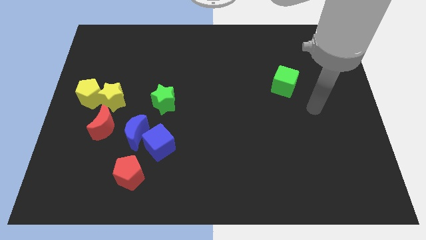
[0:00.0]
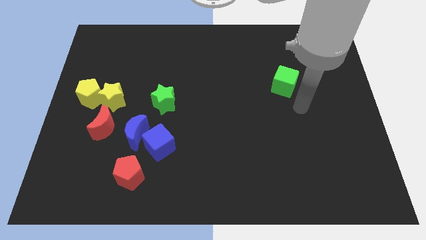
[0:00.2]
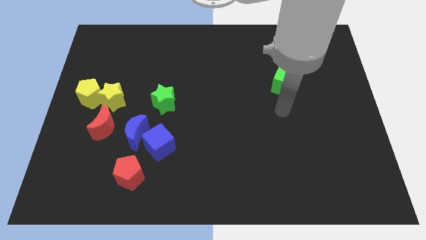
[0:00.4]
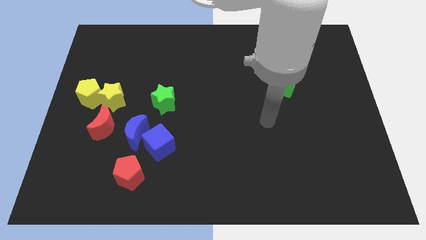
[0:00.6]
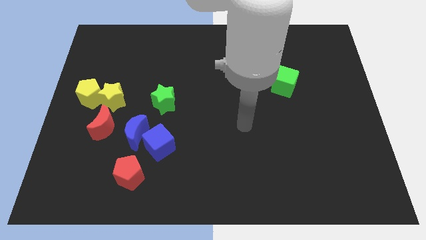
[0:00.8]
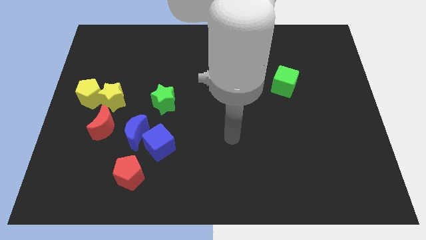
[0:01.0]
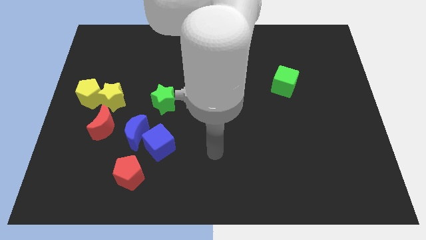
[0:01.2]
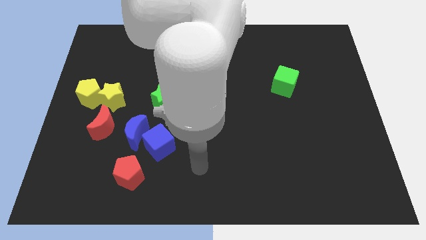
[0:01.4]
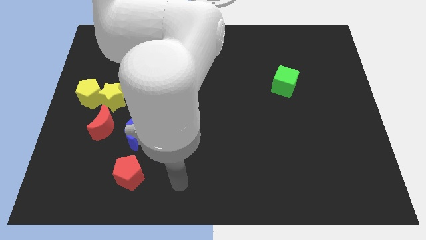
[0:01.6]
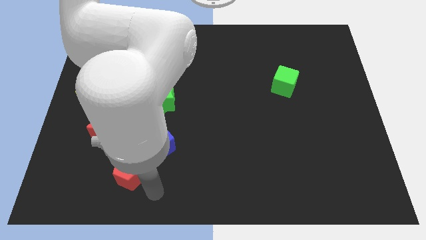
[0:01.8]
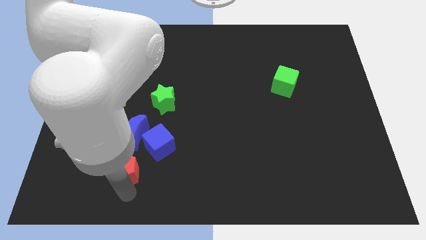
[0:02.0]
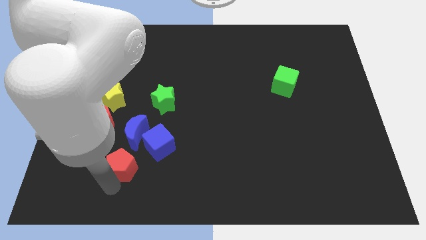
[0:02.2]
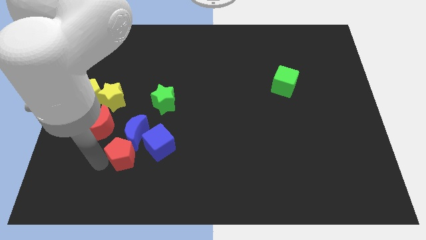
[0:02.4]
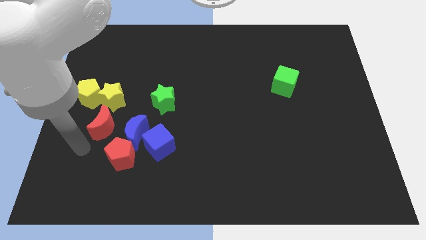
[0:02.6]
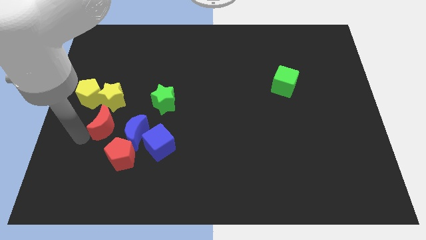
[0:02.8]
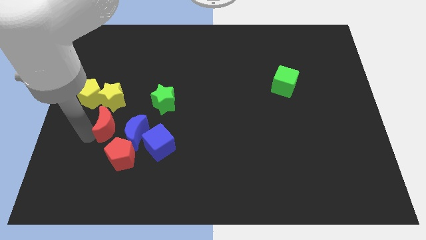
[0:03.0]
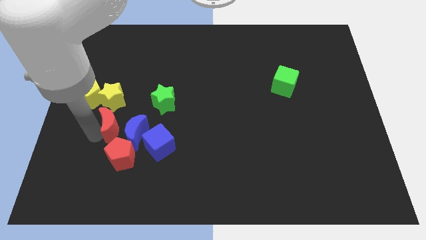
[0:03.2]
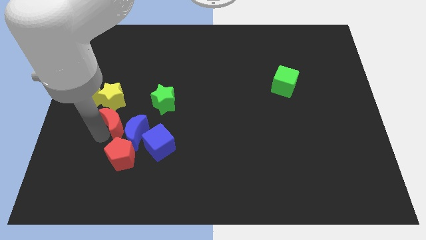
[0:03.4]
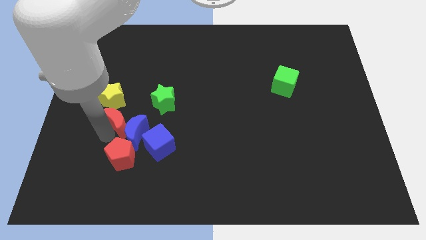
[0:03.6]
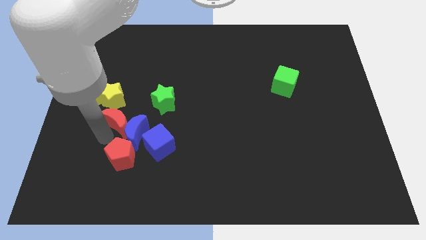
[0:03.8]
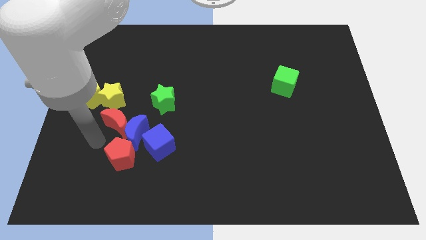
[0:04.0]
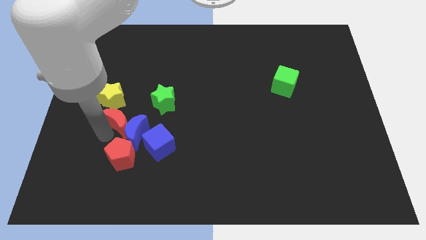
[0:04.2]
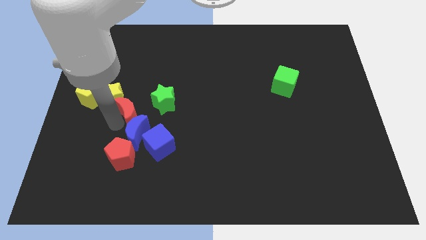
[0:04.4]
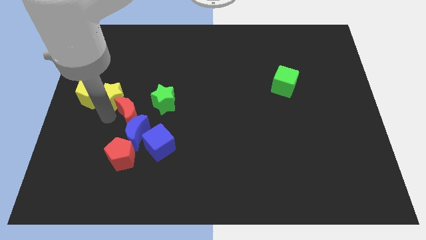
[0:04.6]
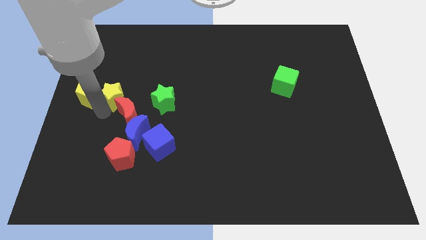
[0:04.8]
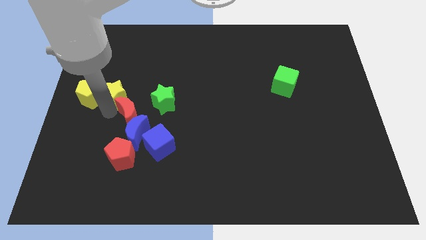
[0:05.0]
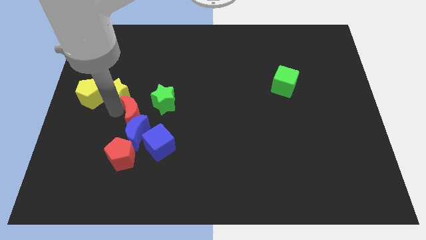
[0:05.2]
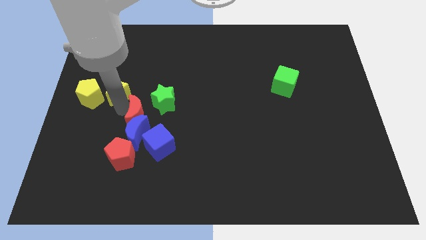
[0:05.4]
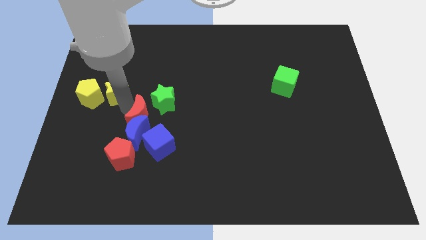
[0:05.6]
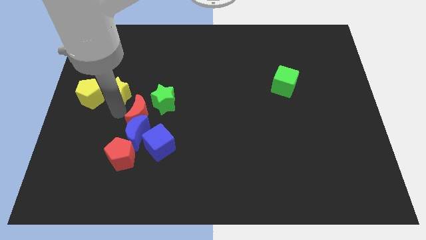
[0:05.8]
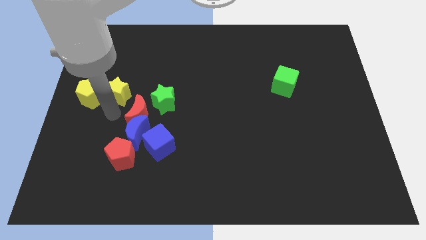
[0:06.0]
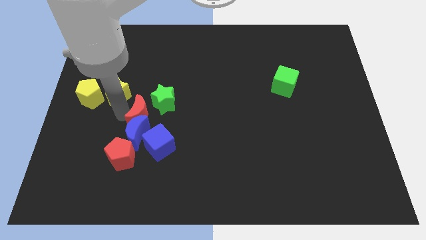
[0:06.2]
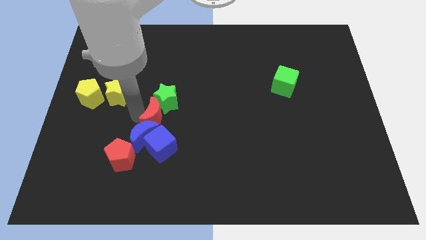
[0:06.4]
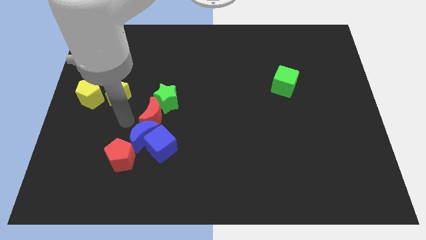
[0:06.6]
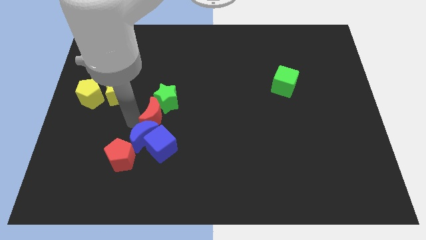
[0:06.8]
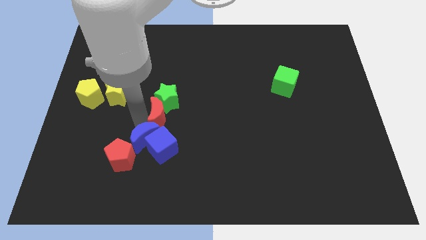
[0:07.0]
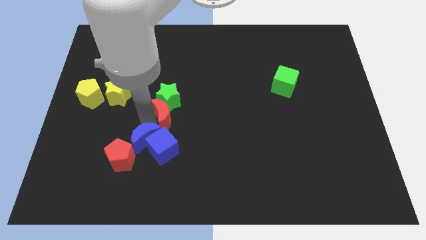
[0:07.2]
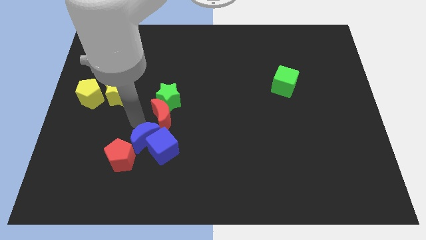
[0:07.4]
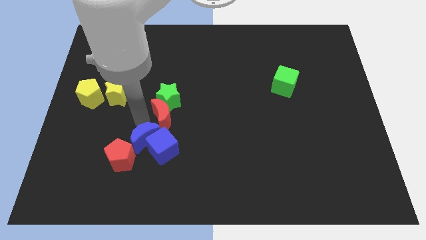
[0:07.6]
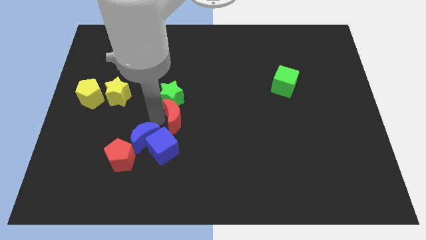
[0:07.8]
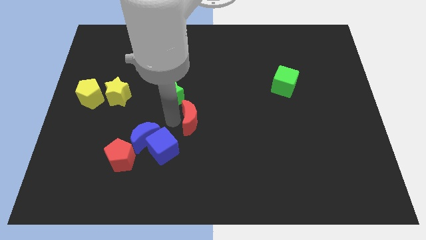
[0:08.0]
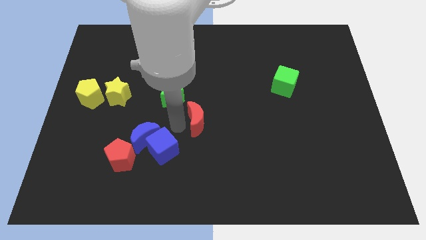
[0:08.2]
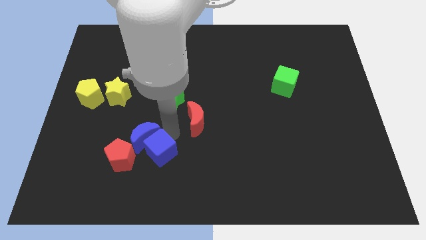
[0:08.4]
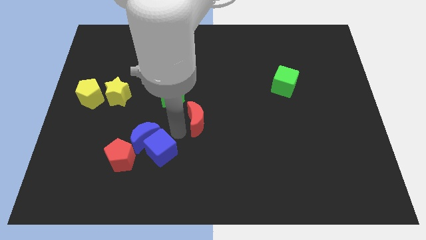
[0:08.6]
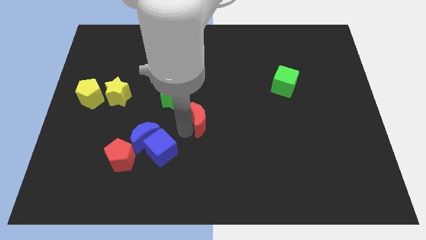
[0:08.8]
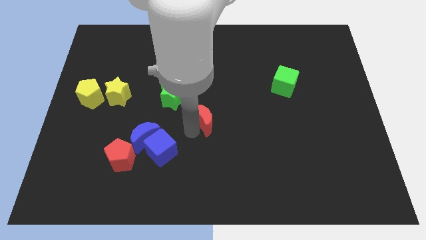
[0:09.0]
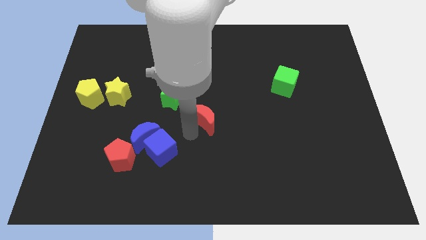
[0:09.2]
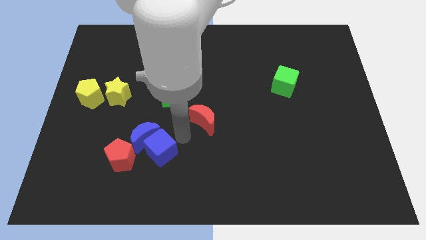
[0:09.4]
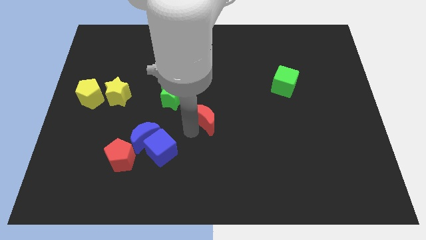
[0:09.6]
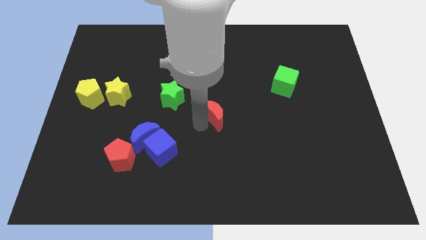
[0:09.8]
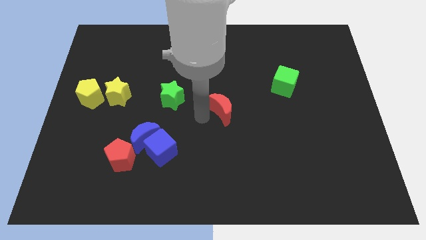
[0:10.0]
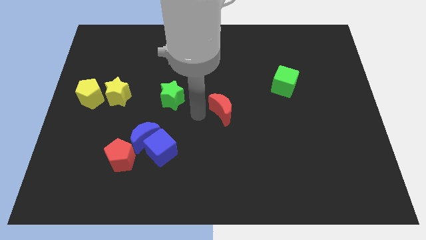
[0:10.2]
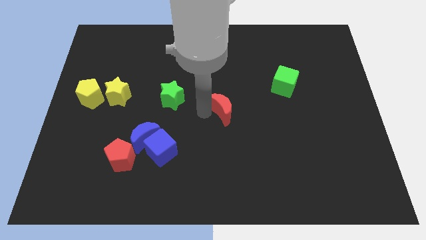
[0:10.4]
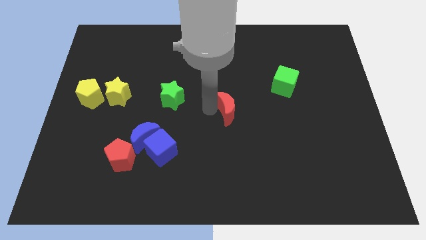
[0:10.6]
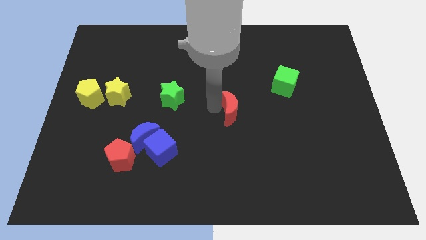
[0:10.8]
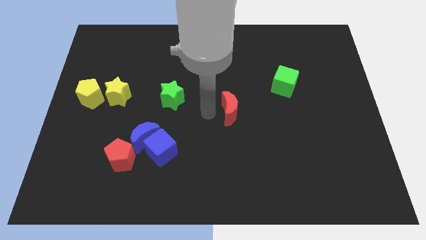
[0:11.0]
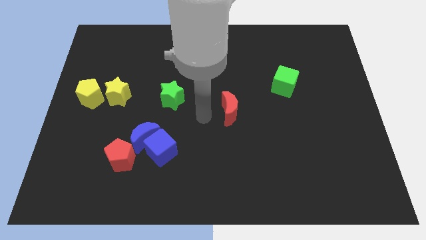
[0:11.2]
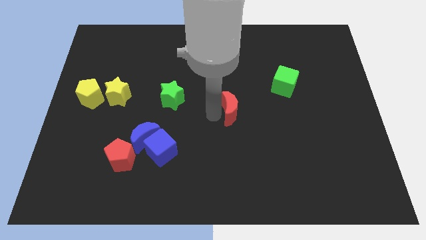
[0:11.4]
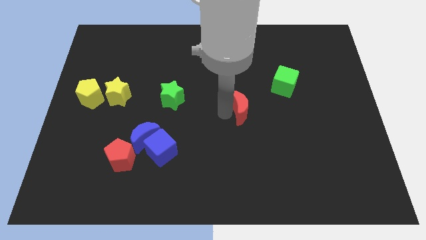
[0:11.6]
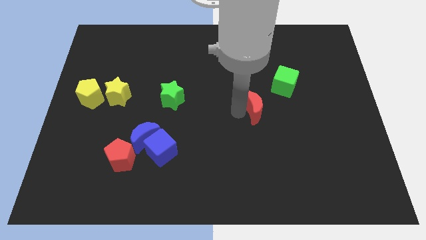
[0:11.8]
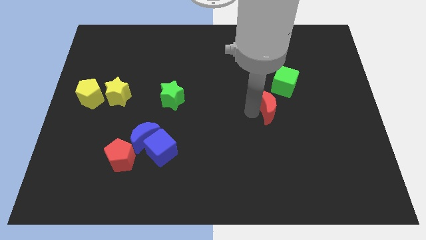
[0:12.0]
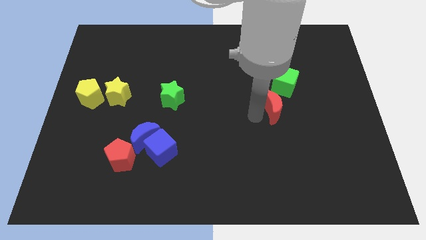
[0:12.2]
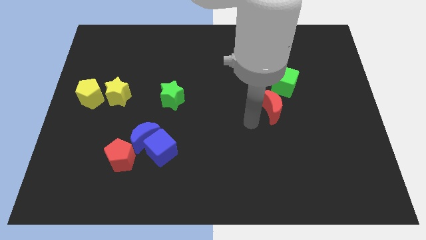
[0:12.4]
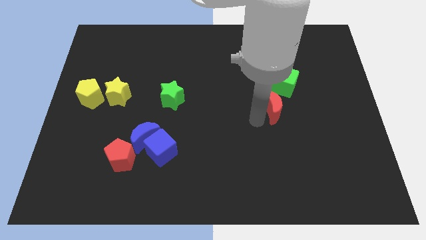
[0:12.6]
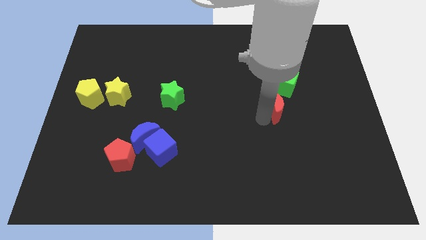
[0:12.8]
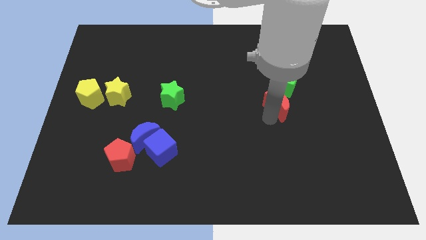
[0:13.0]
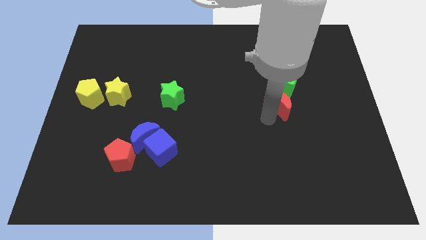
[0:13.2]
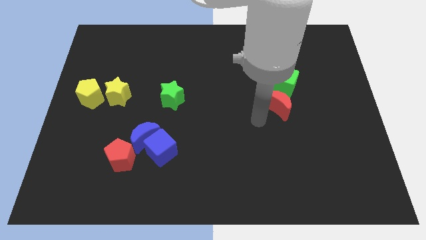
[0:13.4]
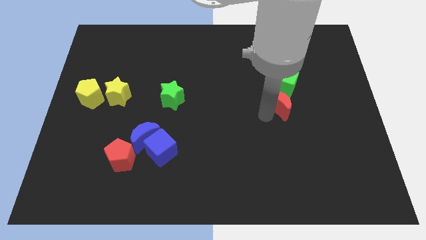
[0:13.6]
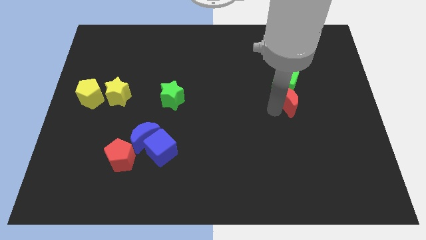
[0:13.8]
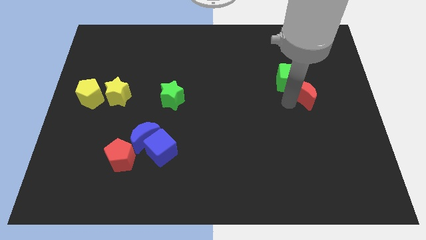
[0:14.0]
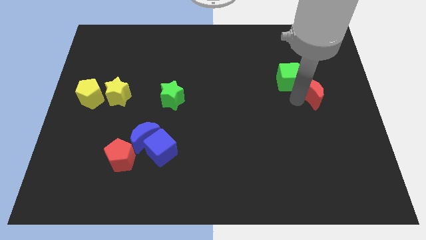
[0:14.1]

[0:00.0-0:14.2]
slide the red moon to the right side of the green cube

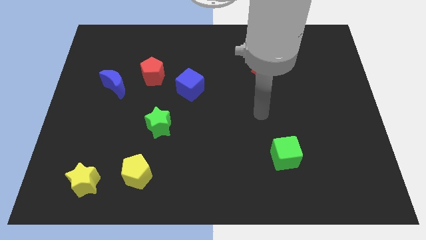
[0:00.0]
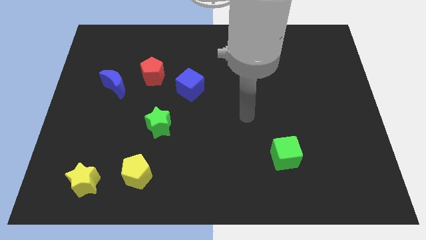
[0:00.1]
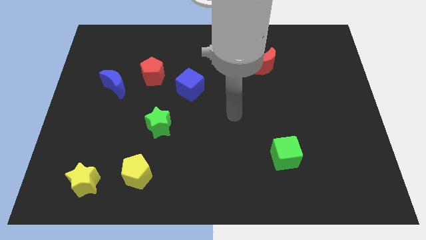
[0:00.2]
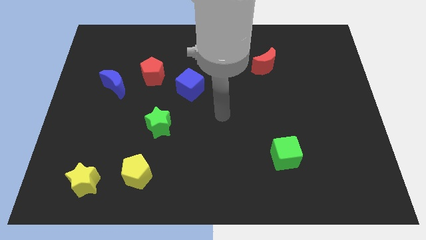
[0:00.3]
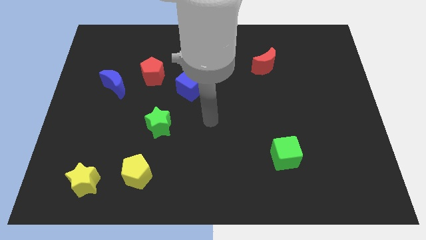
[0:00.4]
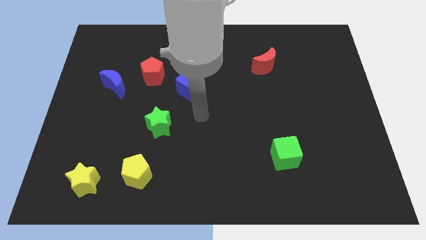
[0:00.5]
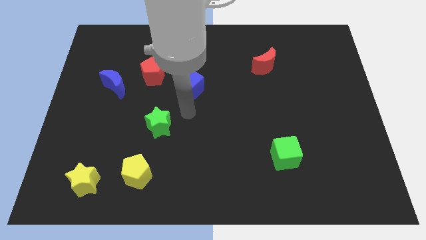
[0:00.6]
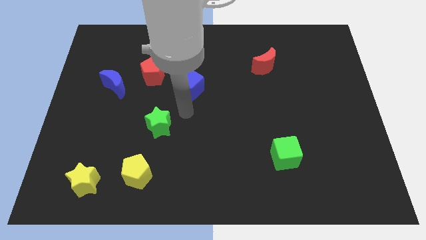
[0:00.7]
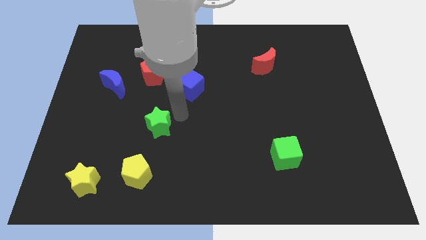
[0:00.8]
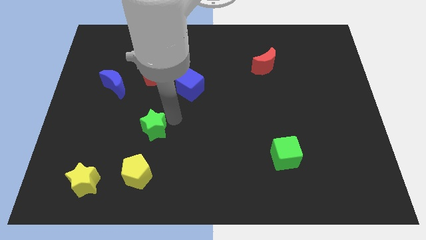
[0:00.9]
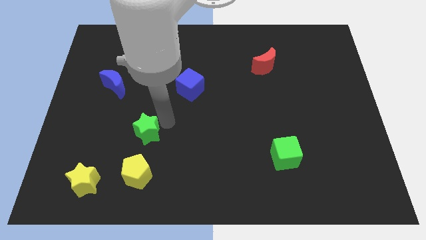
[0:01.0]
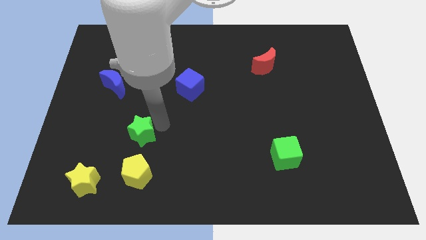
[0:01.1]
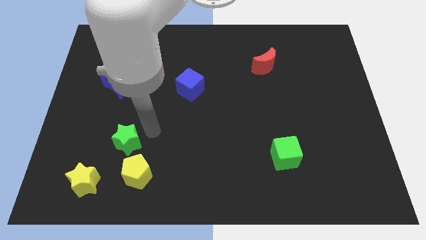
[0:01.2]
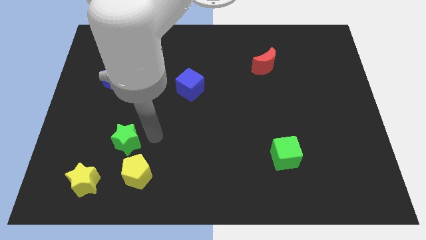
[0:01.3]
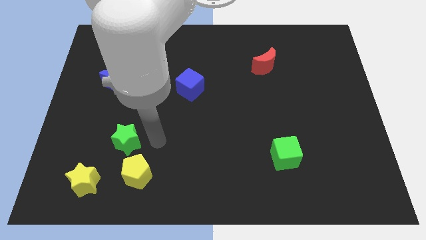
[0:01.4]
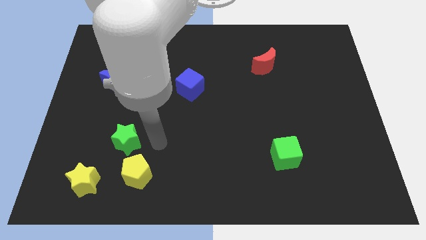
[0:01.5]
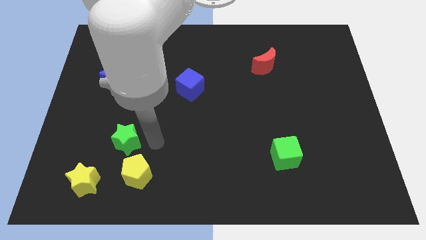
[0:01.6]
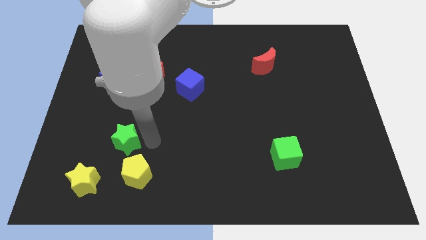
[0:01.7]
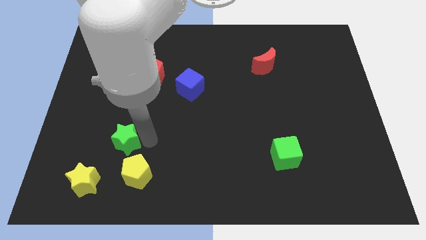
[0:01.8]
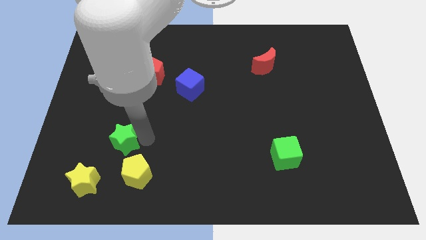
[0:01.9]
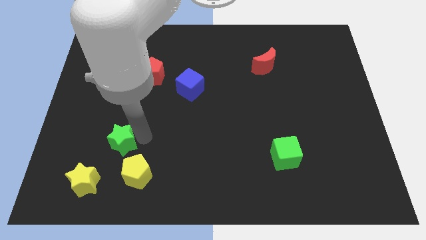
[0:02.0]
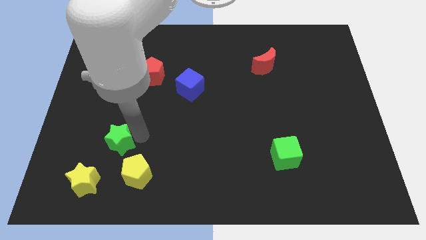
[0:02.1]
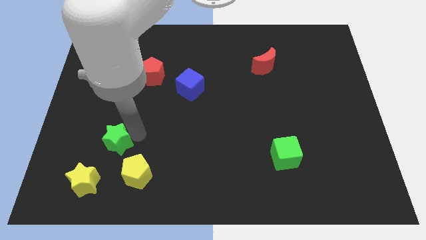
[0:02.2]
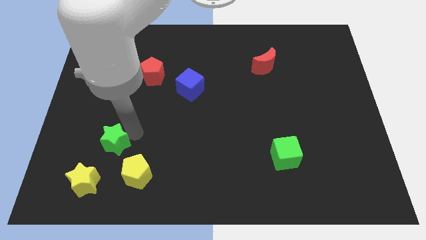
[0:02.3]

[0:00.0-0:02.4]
move the green star to the top of the yellow star
